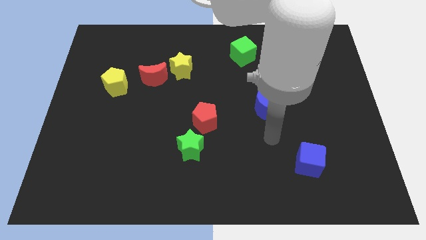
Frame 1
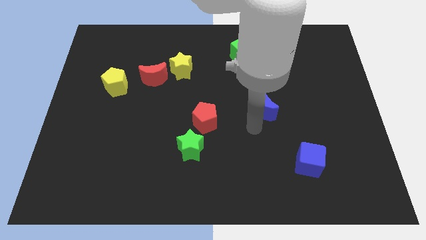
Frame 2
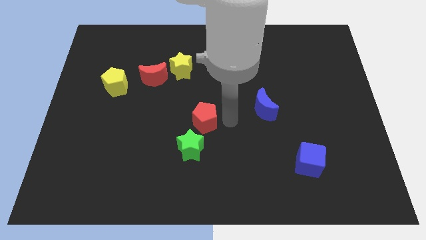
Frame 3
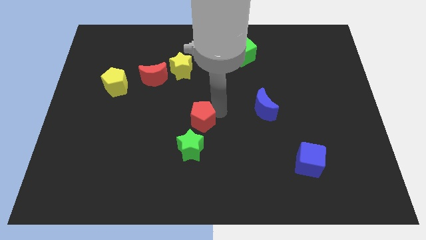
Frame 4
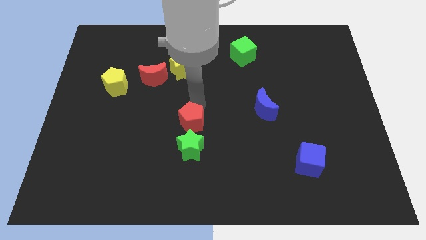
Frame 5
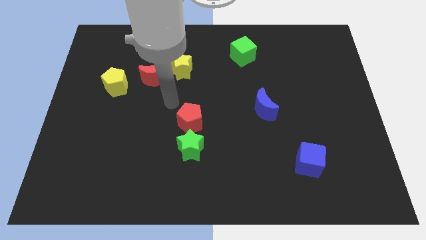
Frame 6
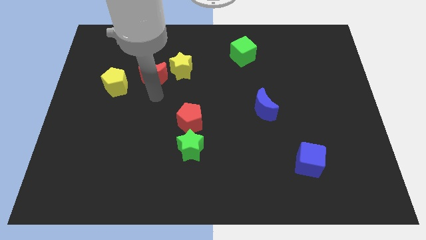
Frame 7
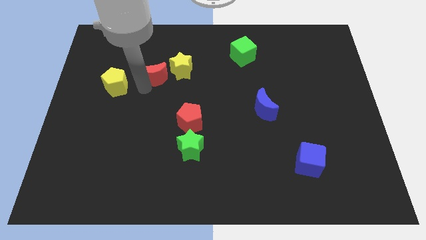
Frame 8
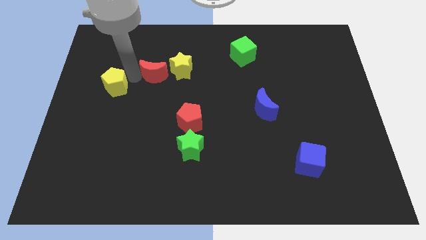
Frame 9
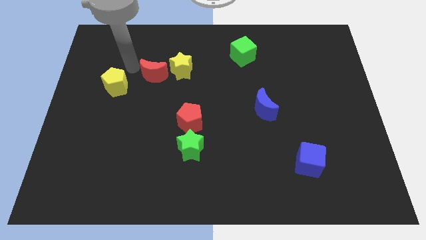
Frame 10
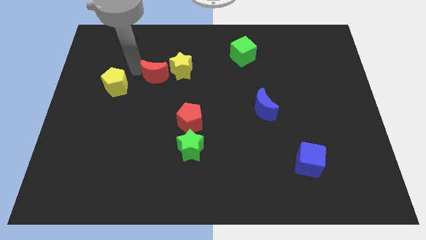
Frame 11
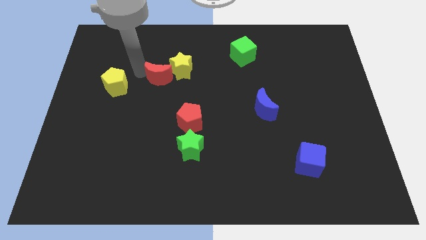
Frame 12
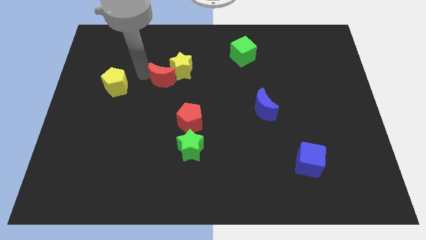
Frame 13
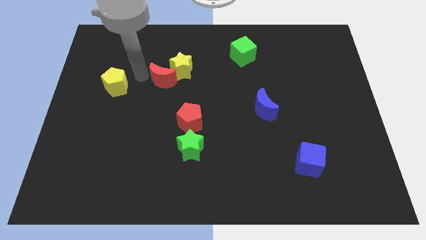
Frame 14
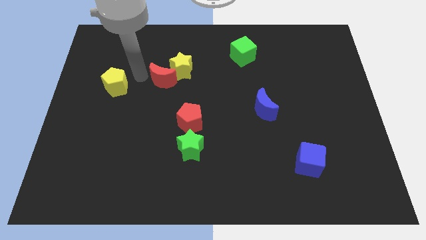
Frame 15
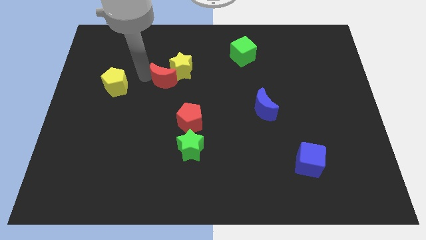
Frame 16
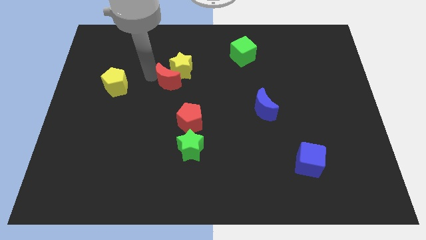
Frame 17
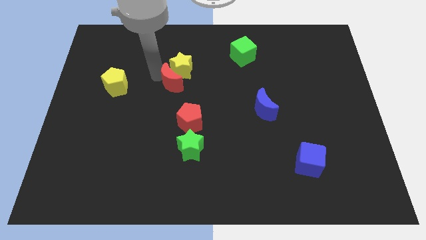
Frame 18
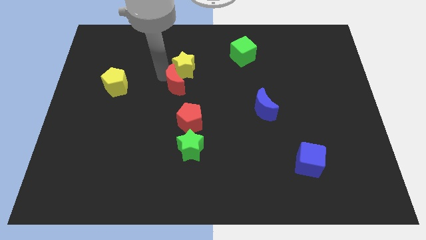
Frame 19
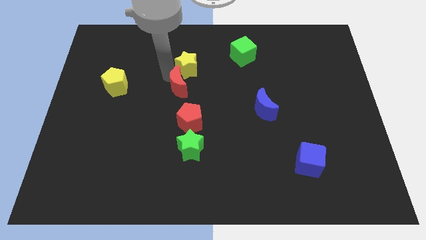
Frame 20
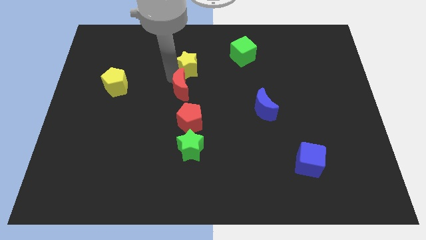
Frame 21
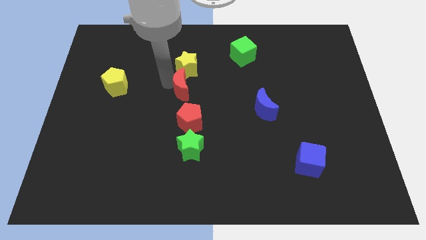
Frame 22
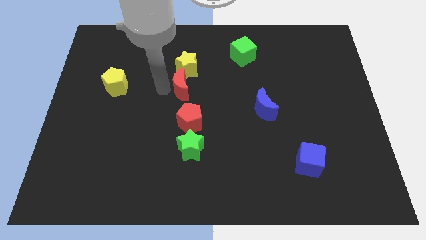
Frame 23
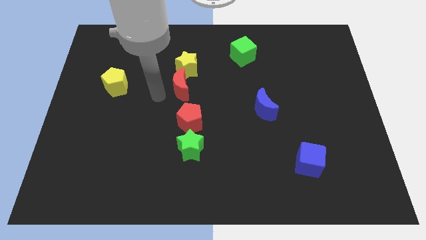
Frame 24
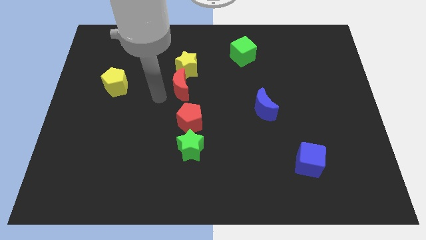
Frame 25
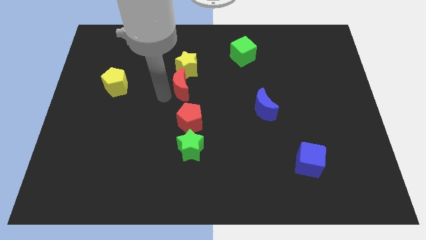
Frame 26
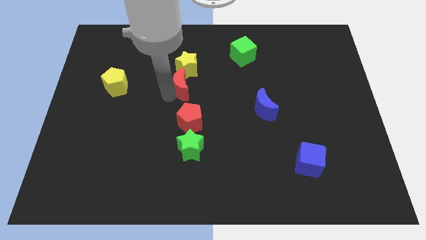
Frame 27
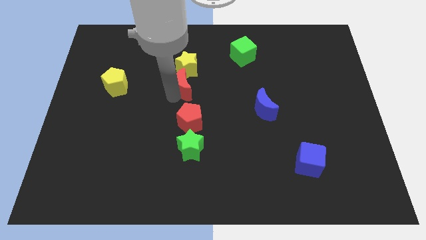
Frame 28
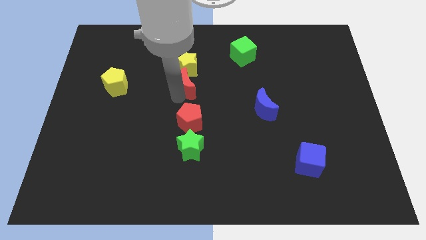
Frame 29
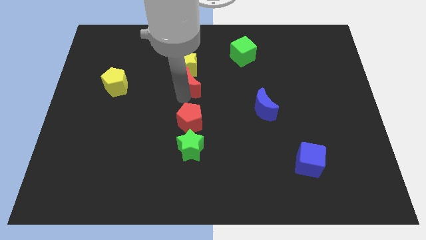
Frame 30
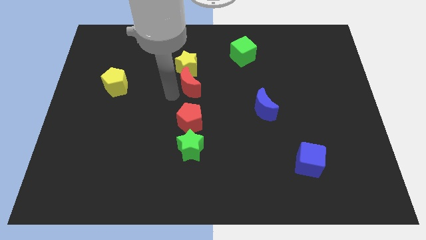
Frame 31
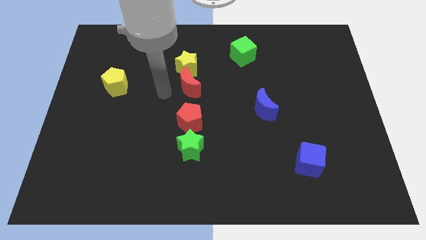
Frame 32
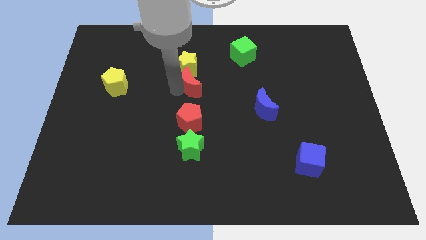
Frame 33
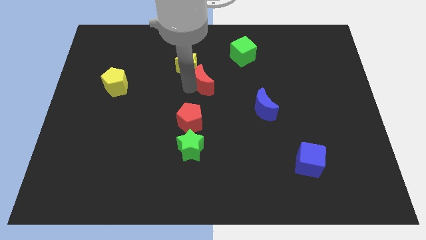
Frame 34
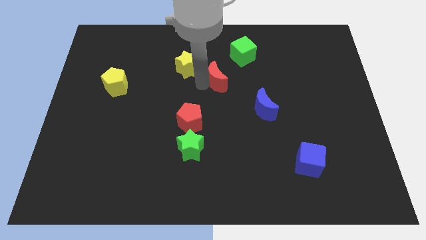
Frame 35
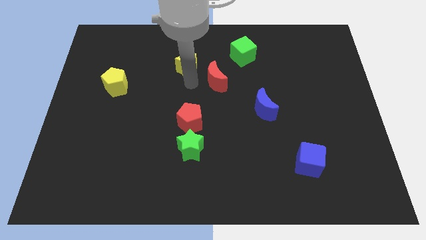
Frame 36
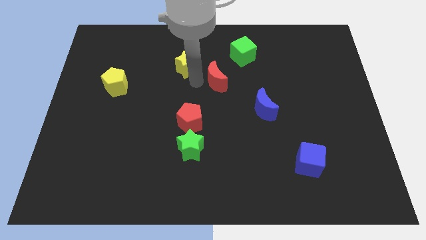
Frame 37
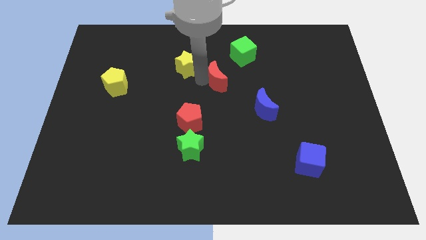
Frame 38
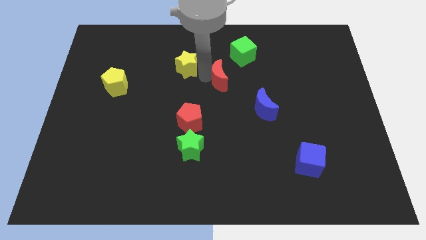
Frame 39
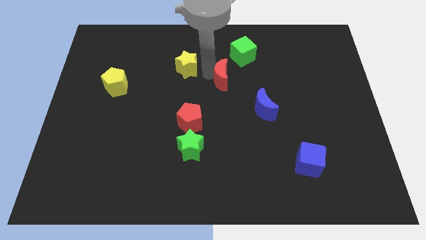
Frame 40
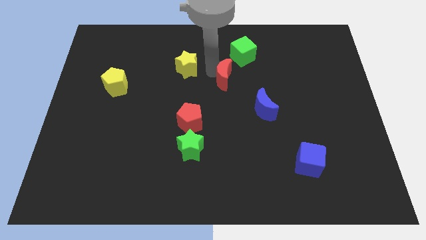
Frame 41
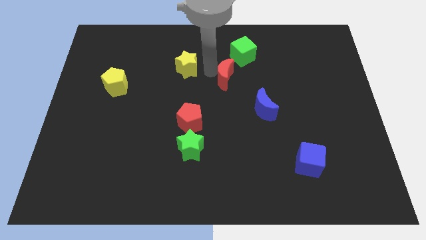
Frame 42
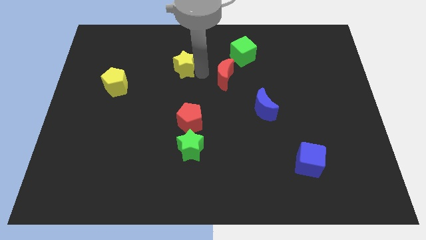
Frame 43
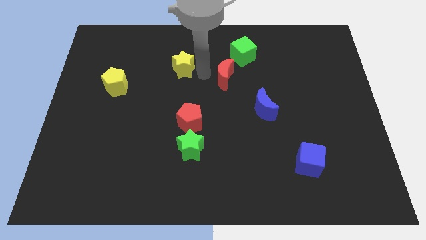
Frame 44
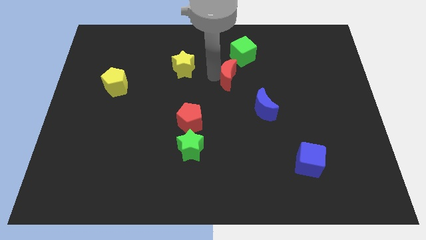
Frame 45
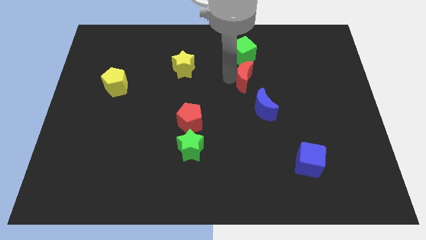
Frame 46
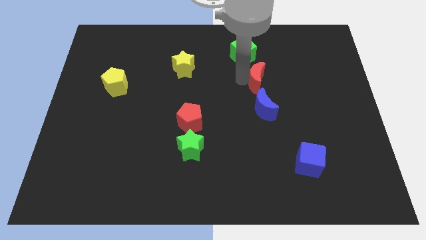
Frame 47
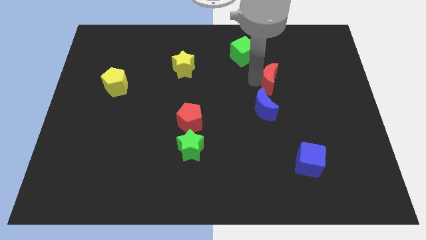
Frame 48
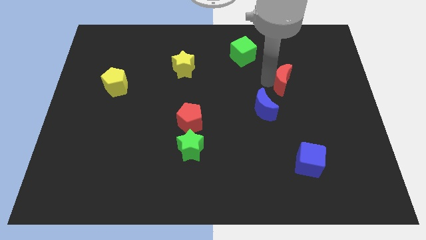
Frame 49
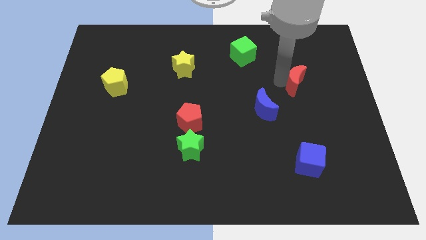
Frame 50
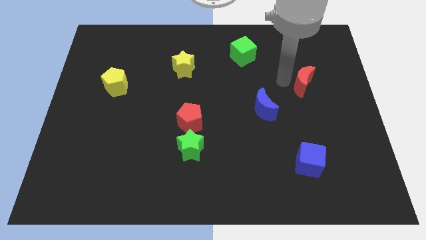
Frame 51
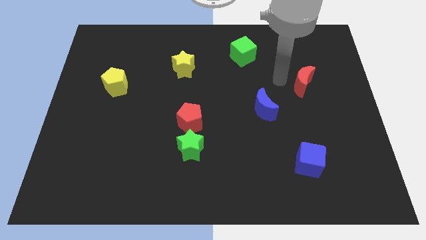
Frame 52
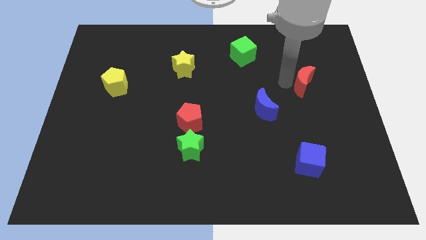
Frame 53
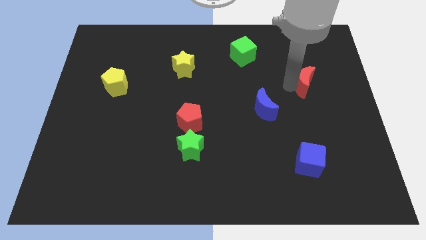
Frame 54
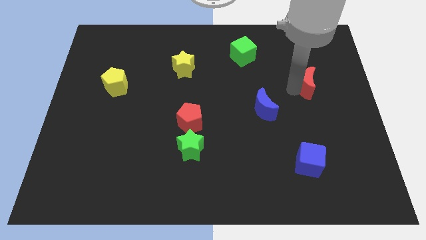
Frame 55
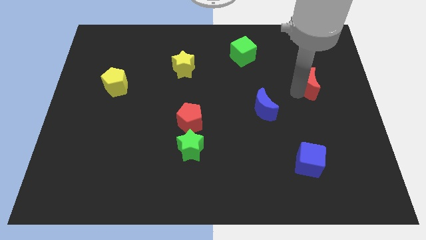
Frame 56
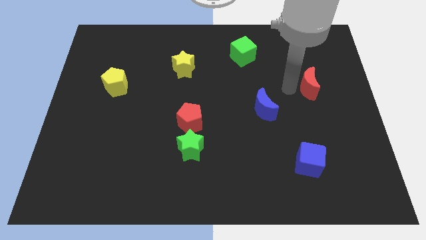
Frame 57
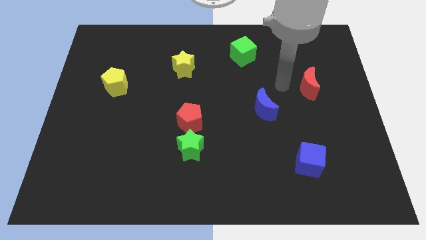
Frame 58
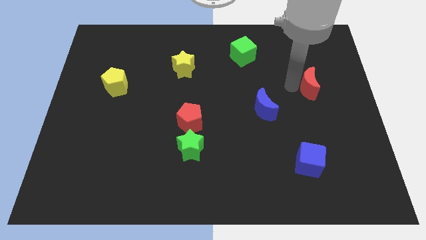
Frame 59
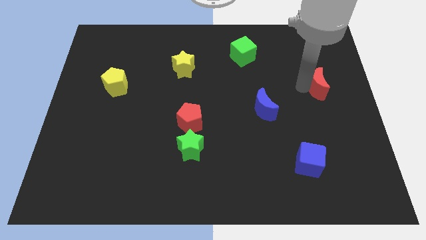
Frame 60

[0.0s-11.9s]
push the red moon to the right side of the board

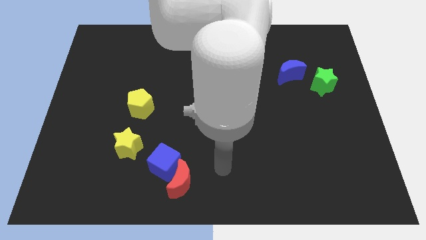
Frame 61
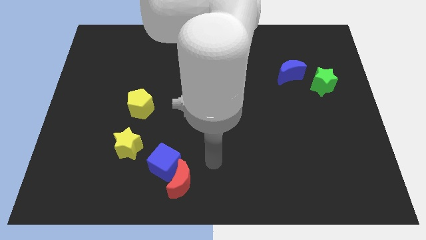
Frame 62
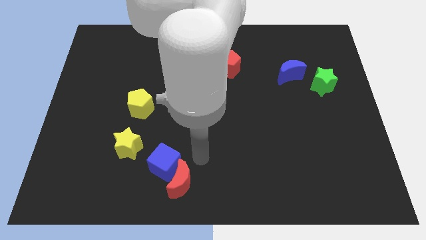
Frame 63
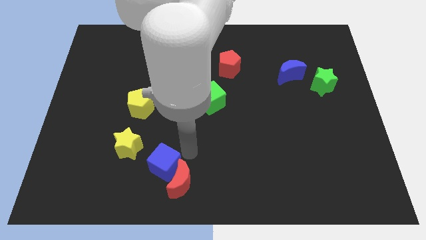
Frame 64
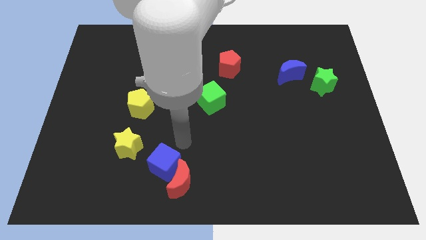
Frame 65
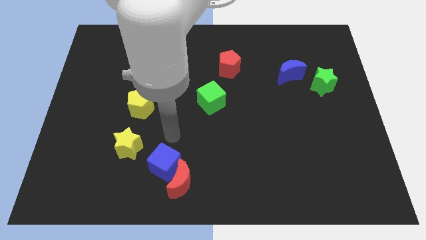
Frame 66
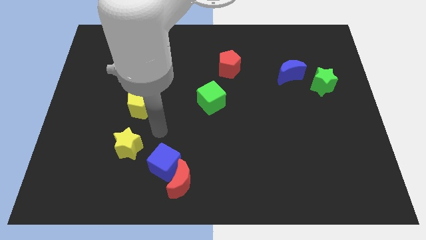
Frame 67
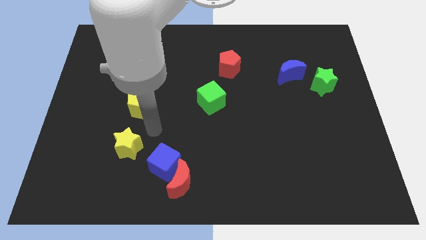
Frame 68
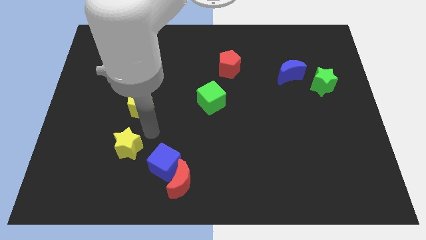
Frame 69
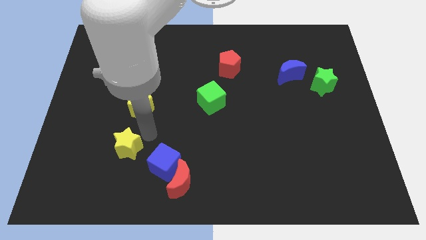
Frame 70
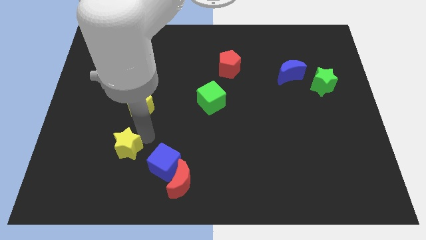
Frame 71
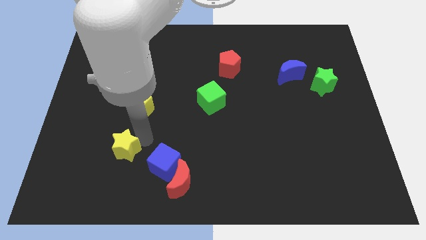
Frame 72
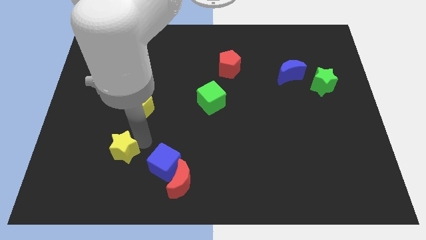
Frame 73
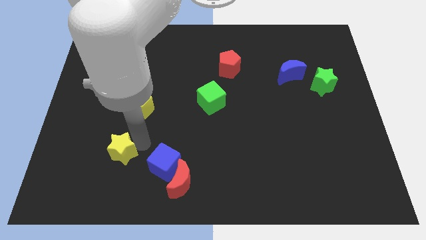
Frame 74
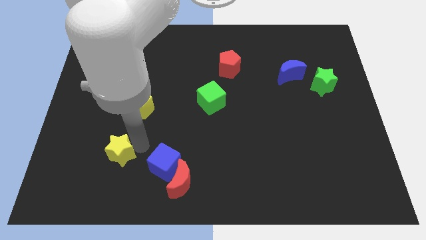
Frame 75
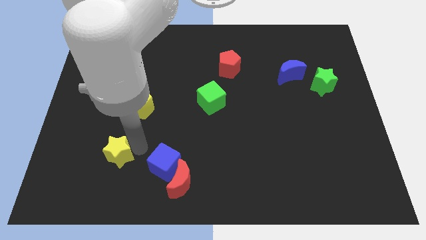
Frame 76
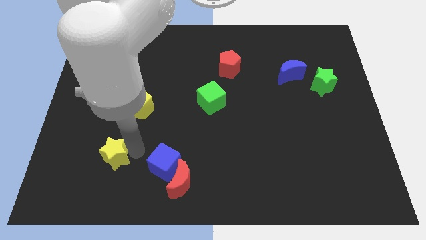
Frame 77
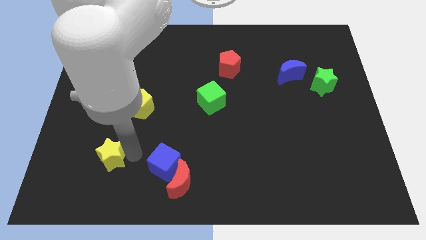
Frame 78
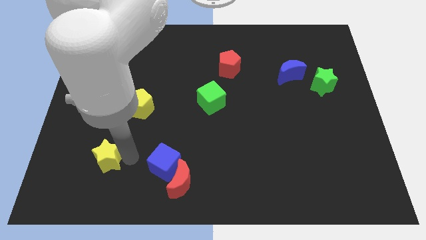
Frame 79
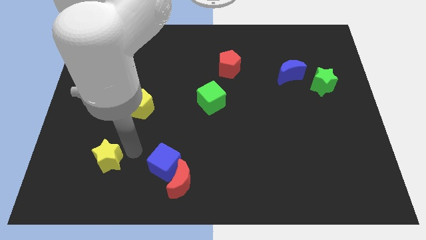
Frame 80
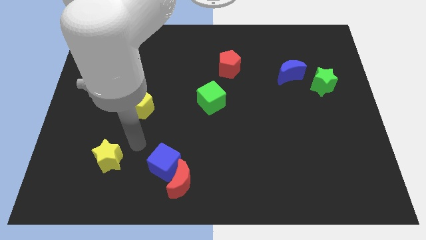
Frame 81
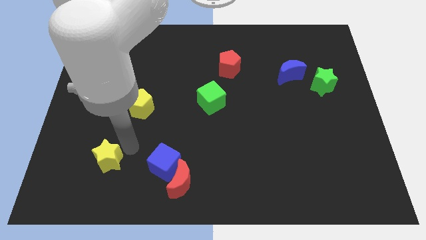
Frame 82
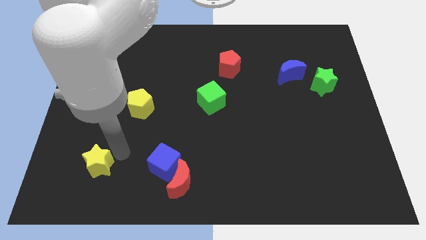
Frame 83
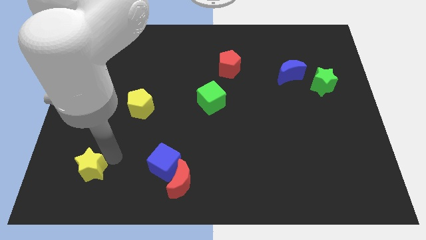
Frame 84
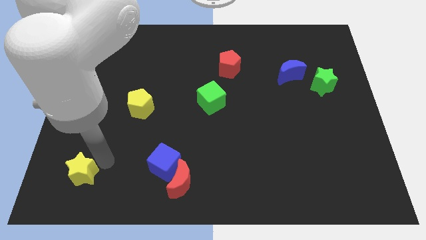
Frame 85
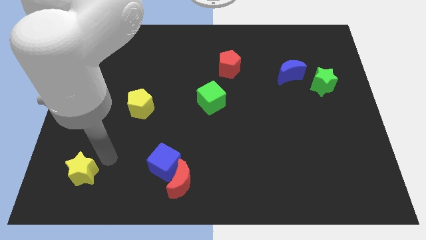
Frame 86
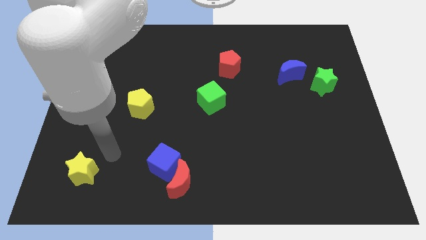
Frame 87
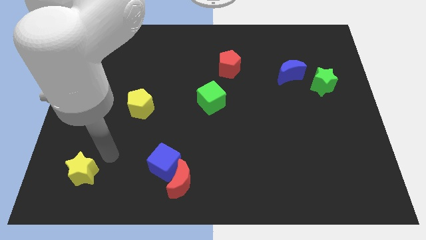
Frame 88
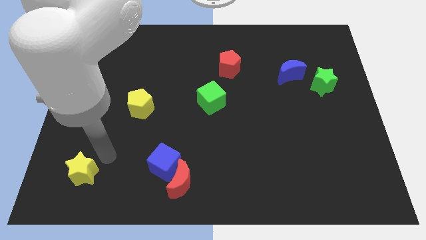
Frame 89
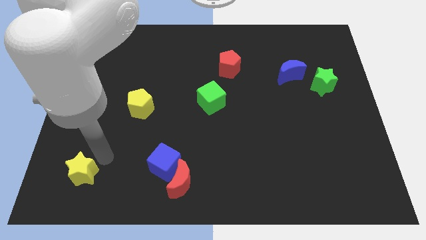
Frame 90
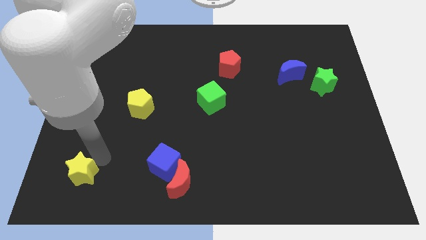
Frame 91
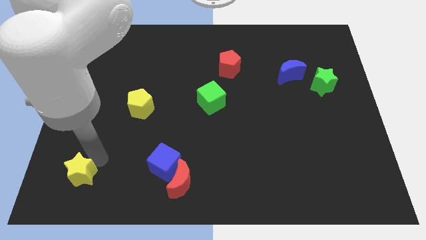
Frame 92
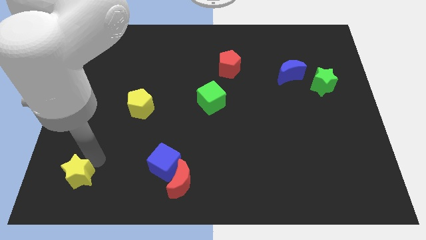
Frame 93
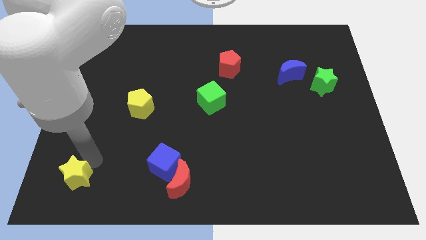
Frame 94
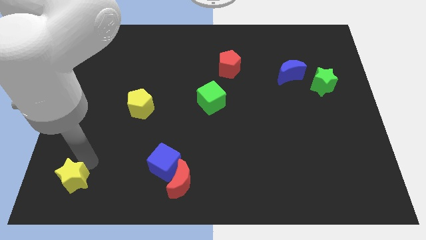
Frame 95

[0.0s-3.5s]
put the yellow star to the bottom left
